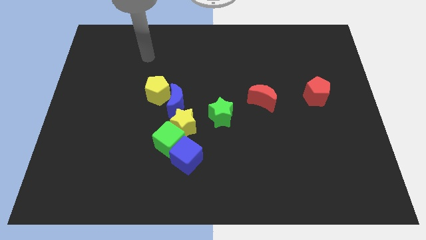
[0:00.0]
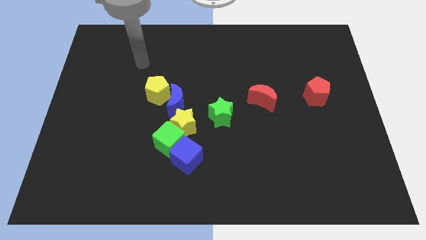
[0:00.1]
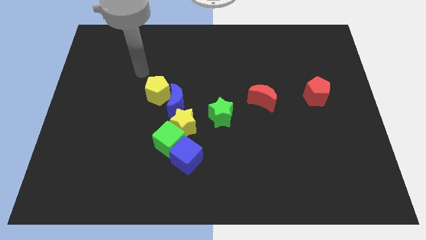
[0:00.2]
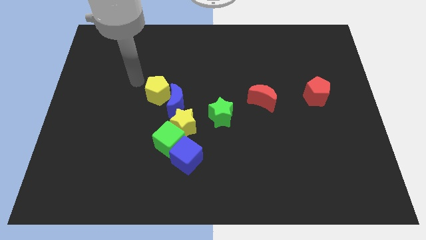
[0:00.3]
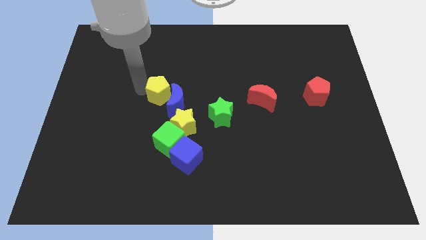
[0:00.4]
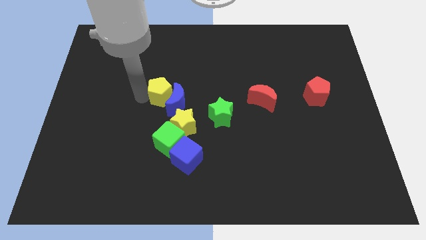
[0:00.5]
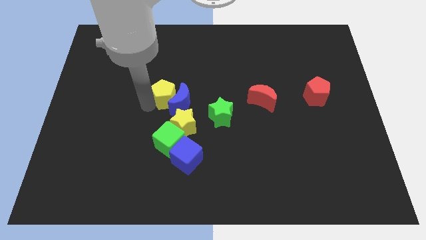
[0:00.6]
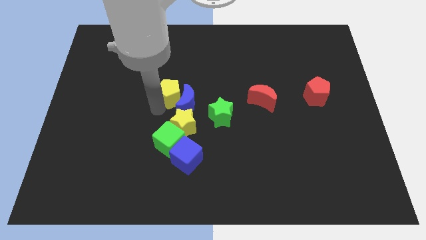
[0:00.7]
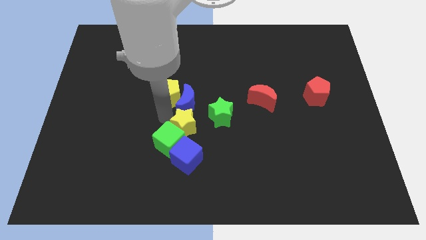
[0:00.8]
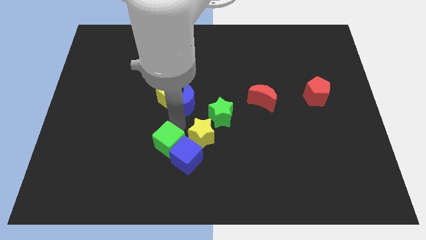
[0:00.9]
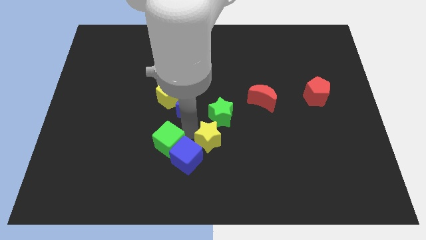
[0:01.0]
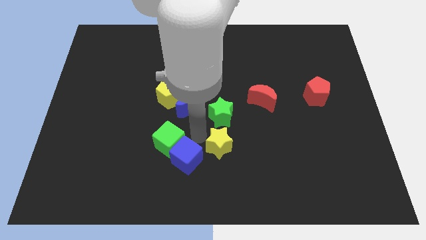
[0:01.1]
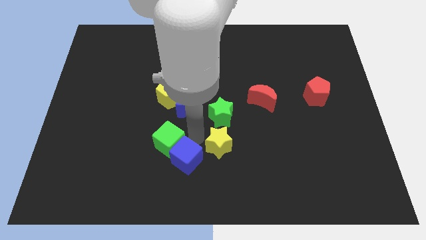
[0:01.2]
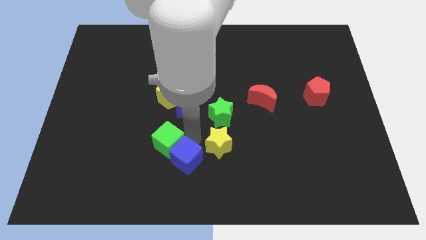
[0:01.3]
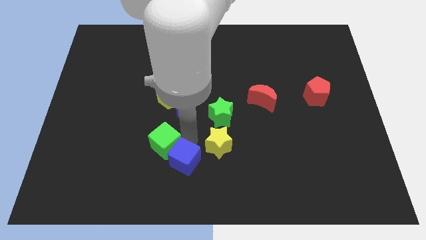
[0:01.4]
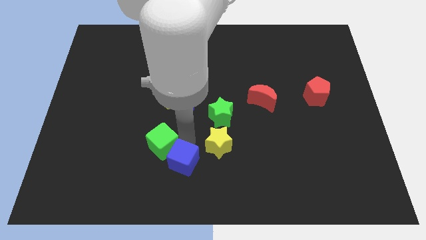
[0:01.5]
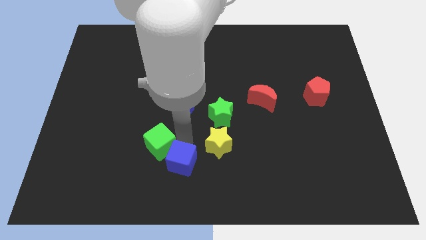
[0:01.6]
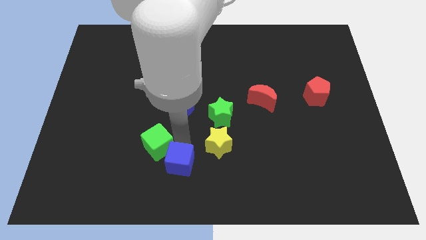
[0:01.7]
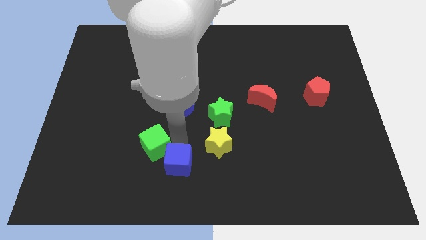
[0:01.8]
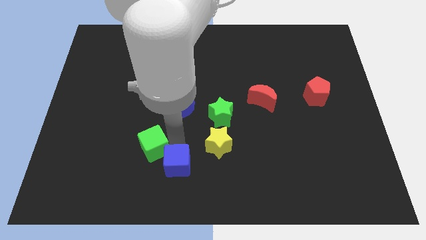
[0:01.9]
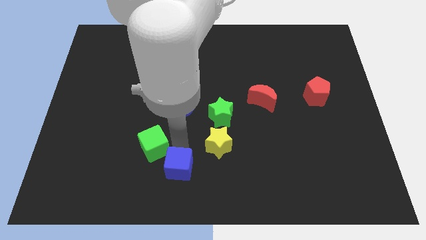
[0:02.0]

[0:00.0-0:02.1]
separate the green cube from the yellow star and blue cube

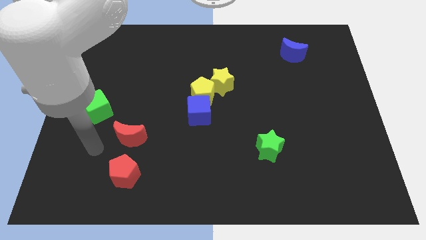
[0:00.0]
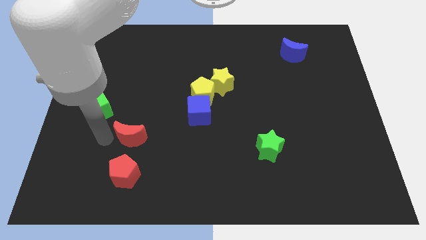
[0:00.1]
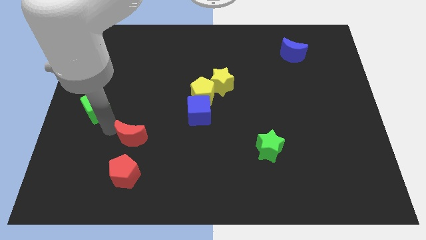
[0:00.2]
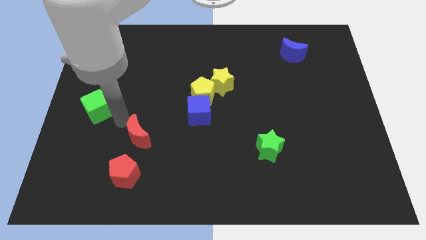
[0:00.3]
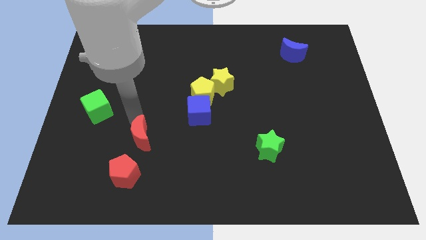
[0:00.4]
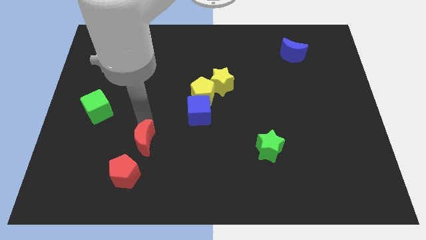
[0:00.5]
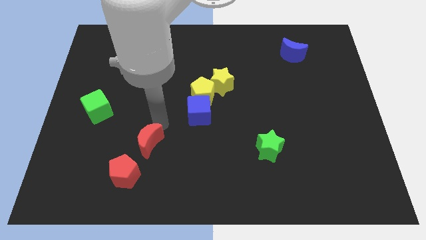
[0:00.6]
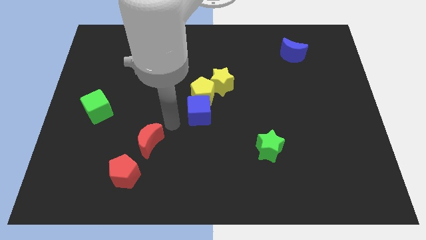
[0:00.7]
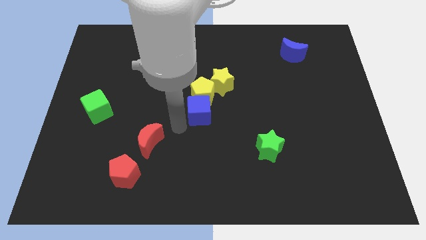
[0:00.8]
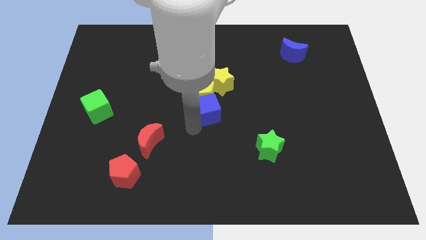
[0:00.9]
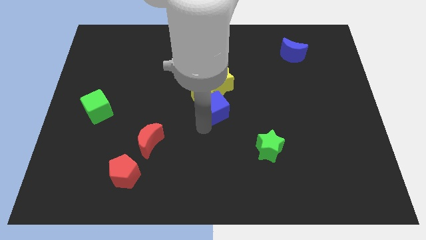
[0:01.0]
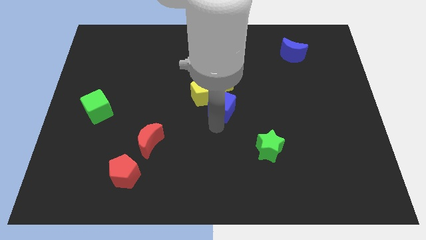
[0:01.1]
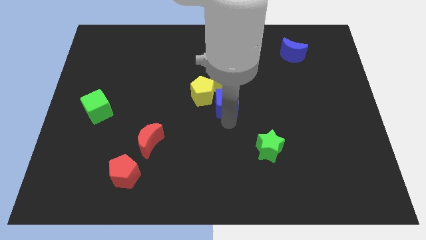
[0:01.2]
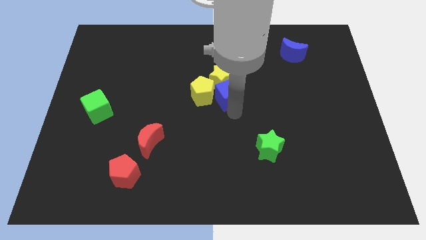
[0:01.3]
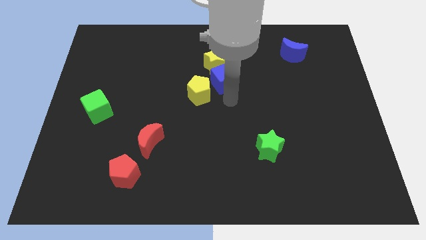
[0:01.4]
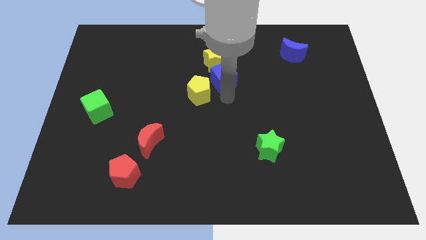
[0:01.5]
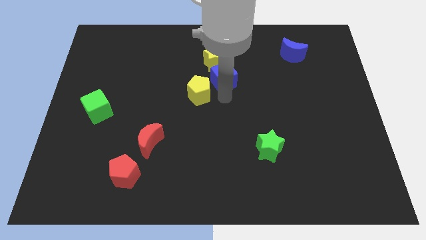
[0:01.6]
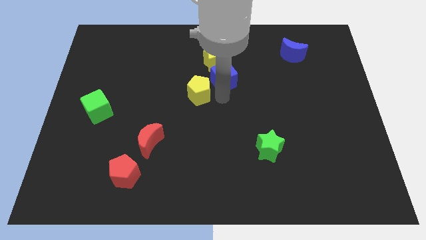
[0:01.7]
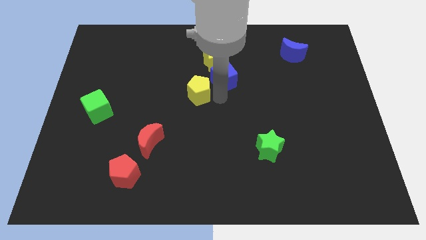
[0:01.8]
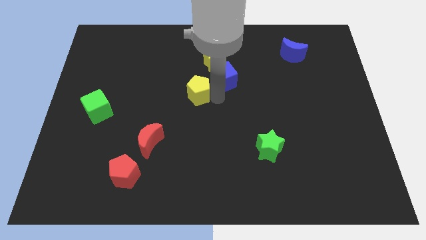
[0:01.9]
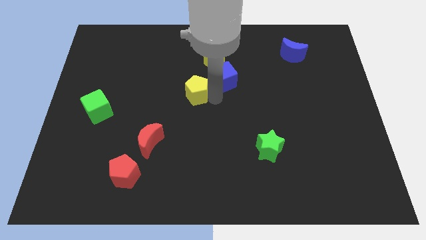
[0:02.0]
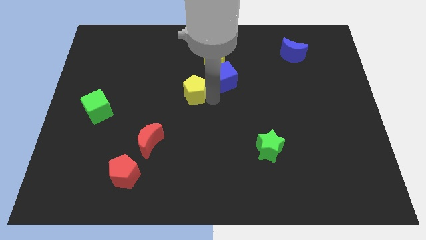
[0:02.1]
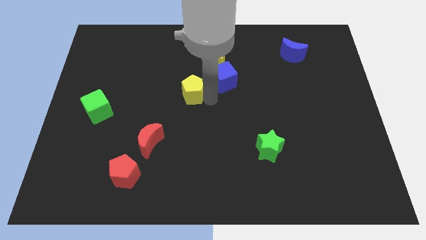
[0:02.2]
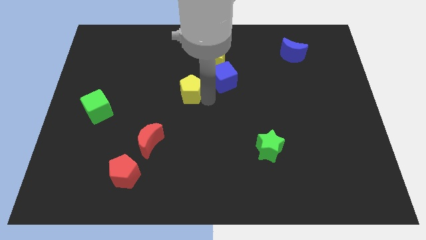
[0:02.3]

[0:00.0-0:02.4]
separate the yellow pentagon from the yellow star and blue cube

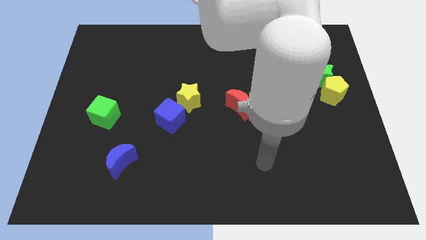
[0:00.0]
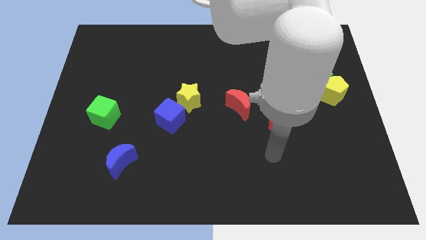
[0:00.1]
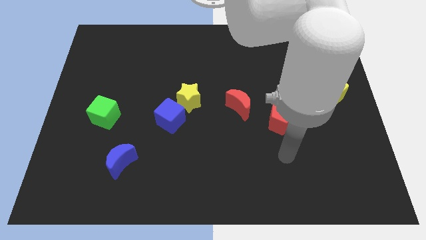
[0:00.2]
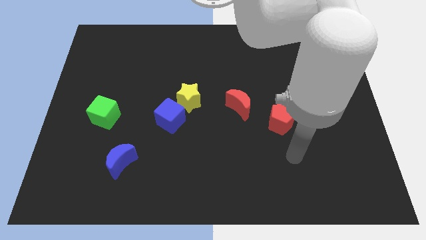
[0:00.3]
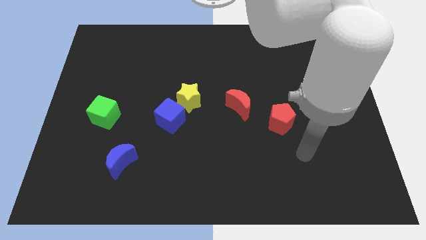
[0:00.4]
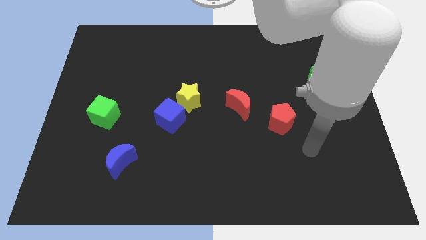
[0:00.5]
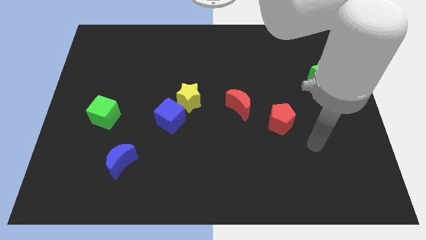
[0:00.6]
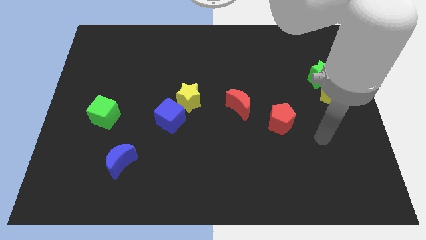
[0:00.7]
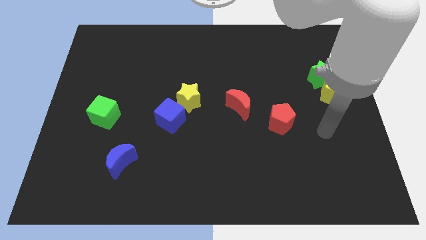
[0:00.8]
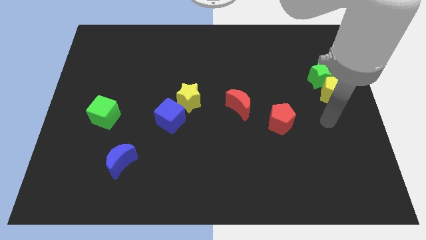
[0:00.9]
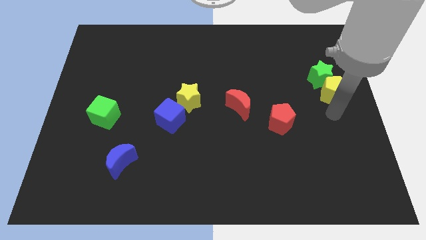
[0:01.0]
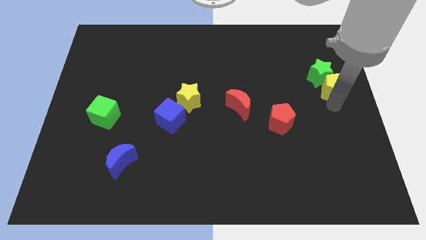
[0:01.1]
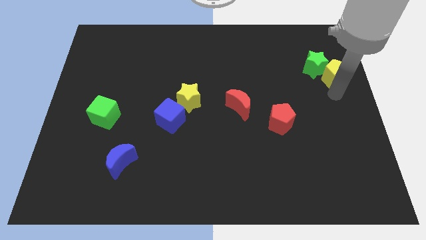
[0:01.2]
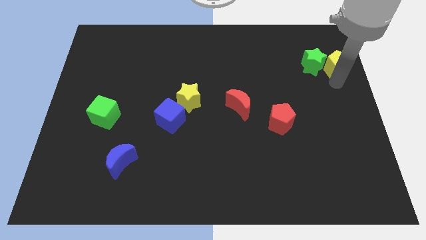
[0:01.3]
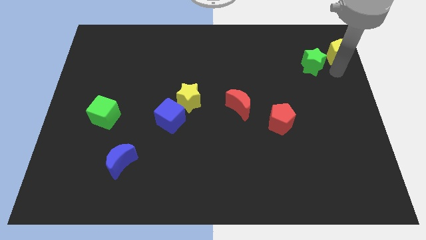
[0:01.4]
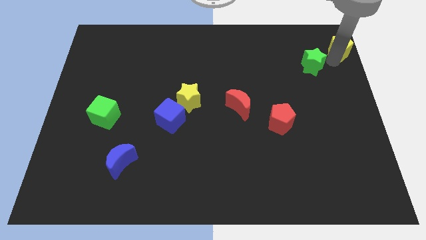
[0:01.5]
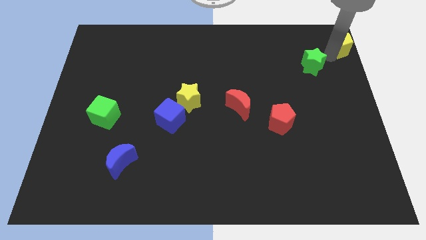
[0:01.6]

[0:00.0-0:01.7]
move the green star away from the yellow pentagon

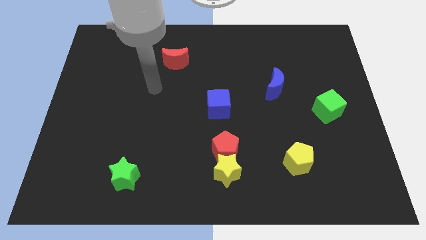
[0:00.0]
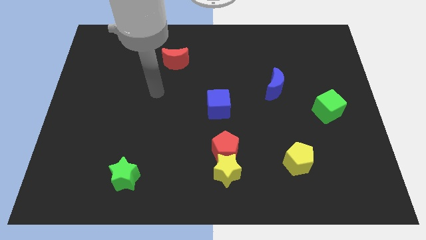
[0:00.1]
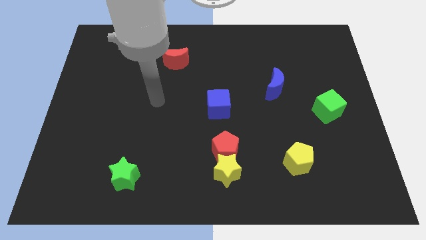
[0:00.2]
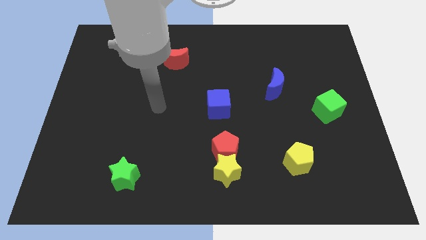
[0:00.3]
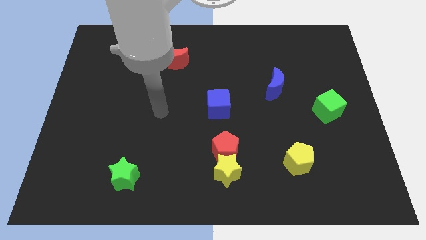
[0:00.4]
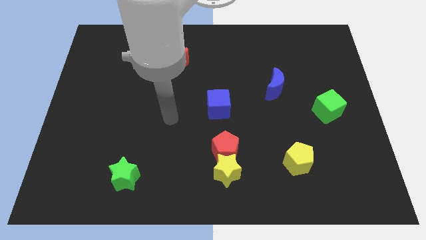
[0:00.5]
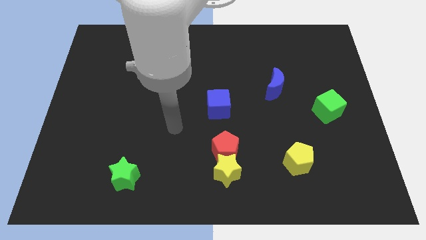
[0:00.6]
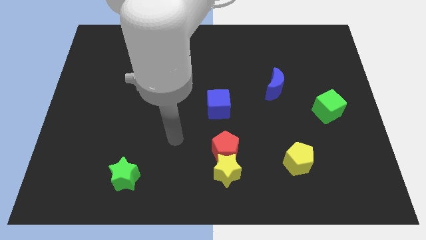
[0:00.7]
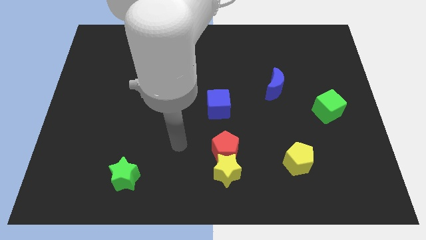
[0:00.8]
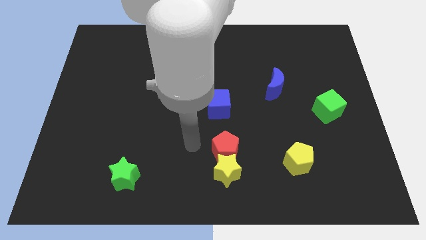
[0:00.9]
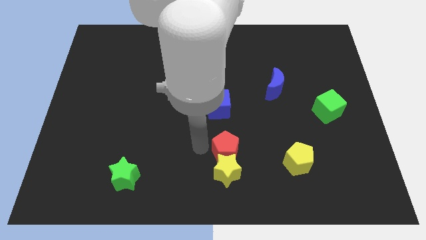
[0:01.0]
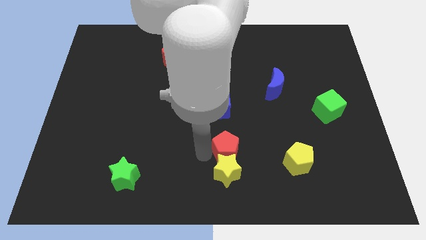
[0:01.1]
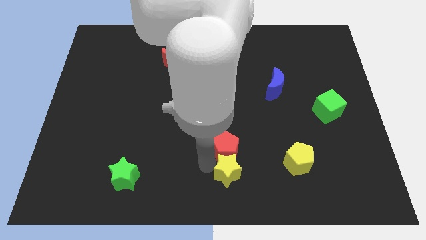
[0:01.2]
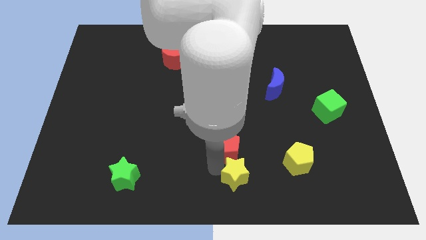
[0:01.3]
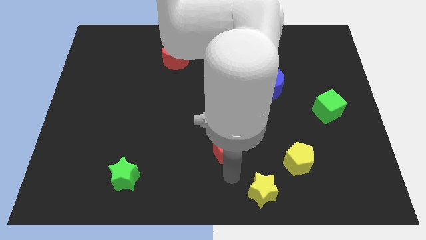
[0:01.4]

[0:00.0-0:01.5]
move the red pentagon away from the yellow star

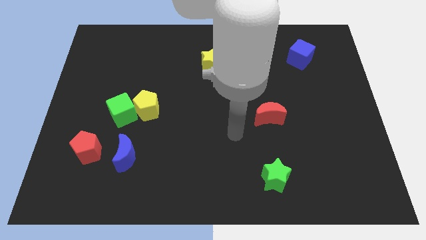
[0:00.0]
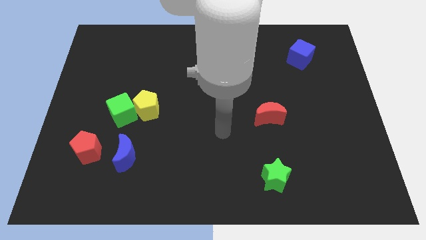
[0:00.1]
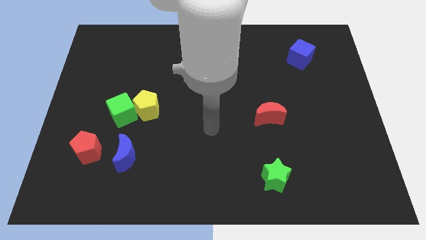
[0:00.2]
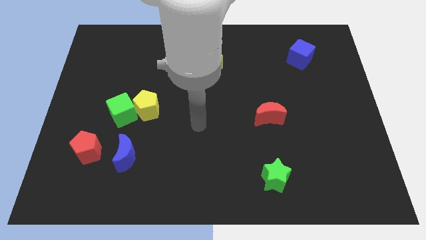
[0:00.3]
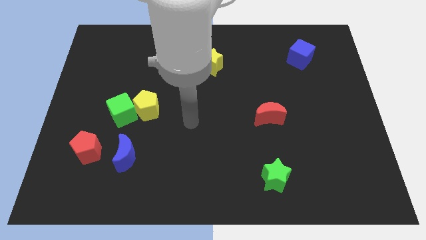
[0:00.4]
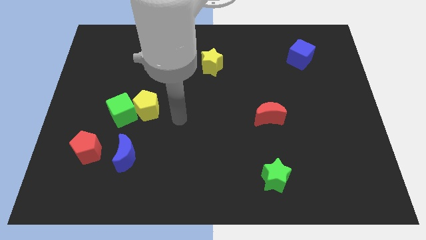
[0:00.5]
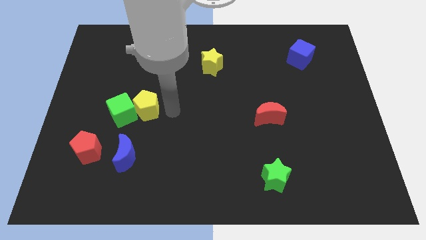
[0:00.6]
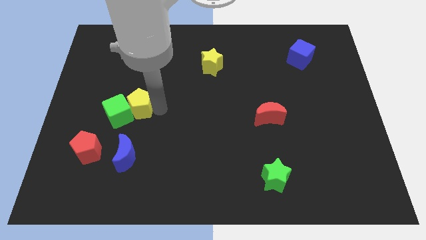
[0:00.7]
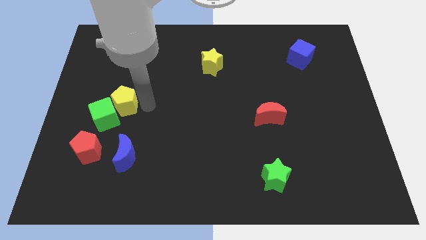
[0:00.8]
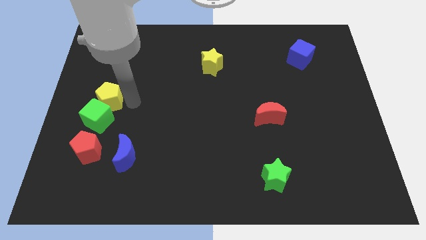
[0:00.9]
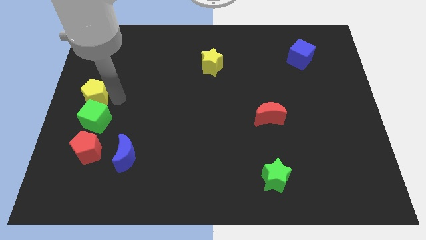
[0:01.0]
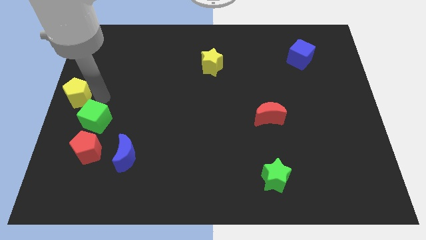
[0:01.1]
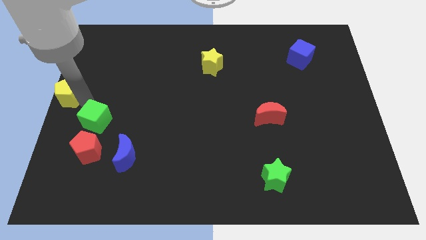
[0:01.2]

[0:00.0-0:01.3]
separate the green cube from the yellow pentagon

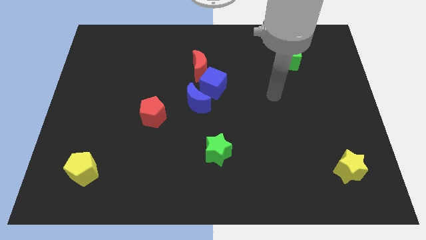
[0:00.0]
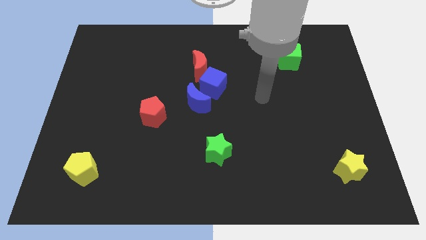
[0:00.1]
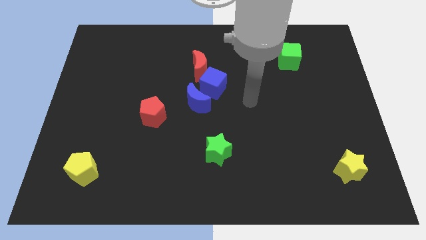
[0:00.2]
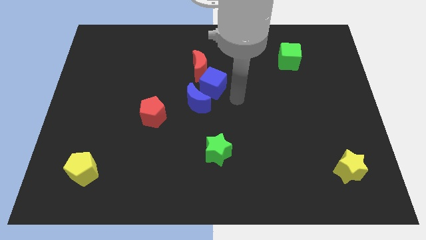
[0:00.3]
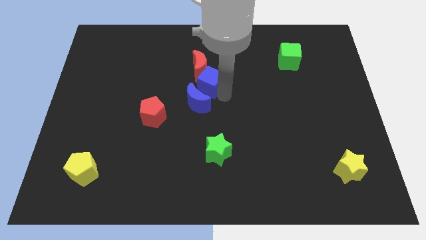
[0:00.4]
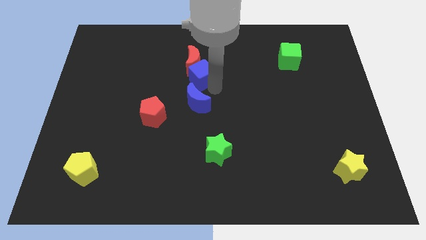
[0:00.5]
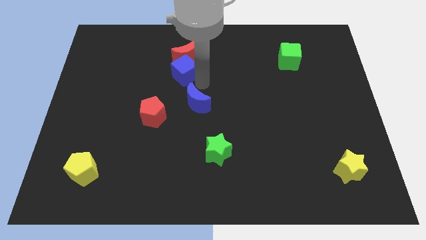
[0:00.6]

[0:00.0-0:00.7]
separate the blue moon from the blue cube
